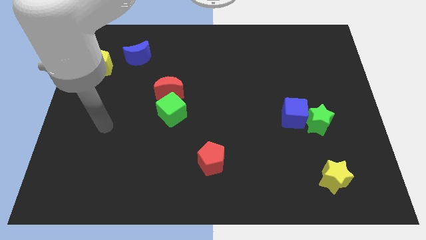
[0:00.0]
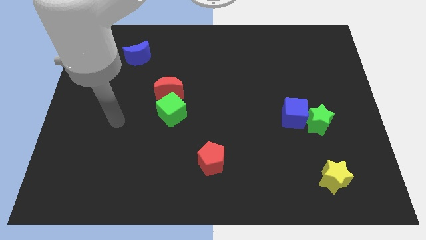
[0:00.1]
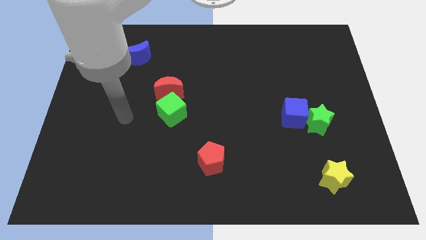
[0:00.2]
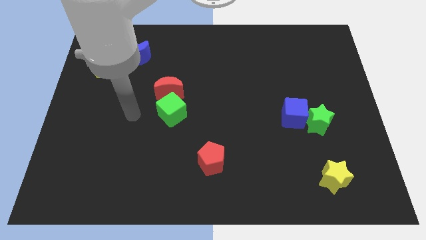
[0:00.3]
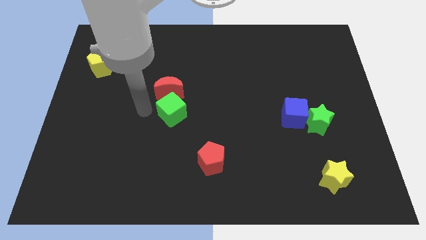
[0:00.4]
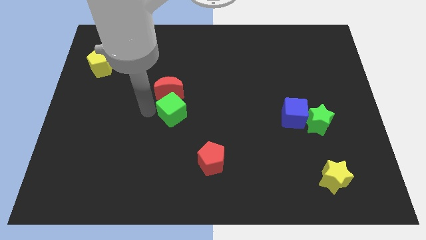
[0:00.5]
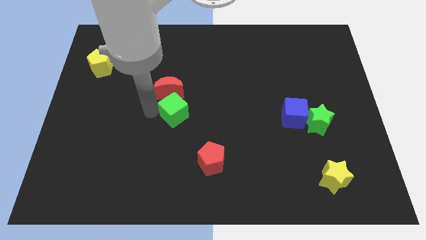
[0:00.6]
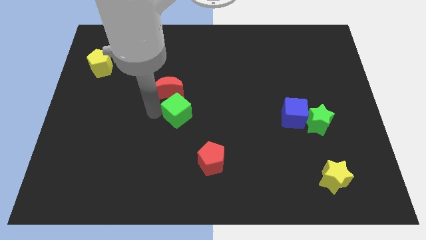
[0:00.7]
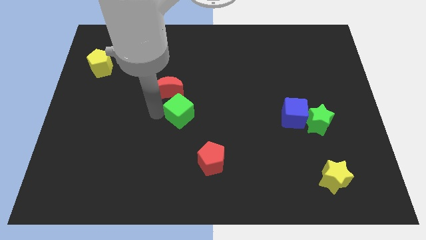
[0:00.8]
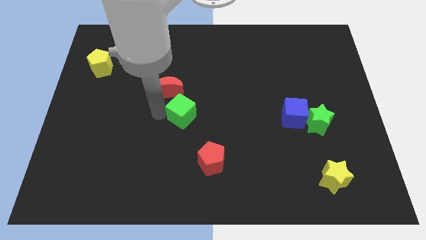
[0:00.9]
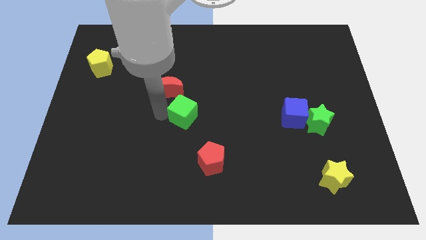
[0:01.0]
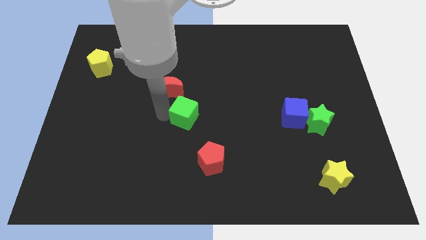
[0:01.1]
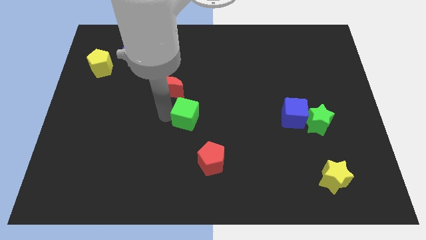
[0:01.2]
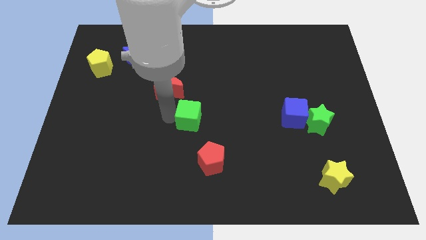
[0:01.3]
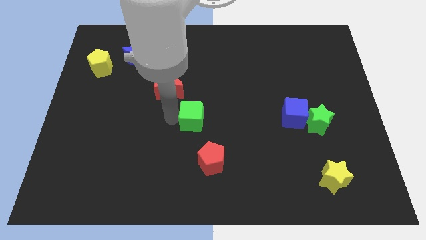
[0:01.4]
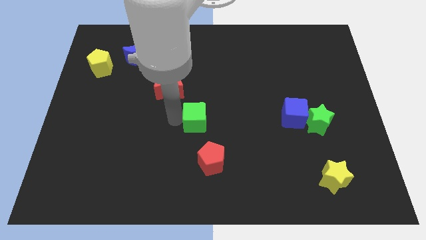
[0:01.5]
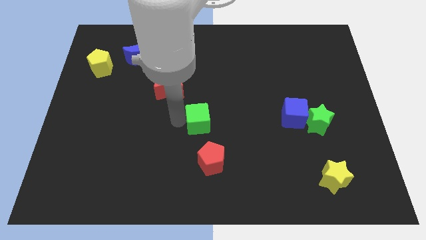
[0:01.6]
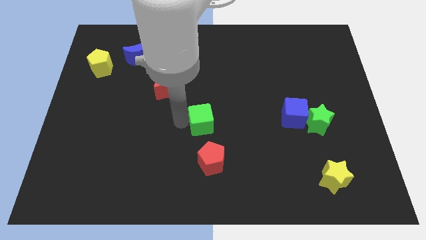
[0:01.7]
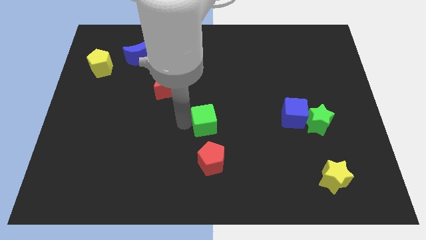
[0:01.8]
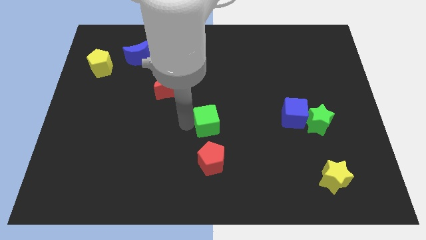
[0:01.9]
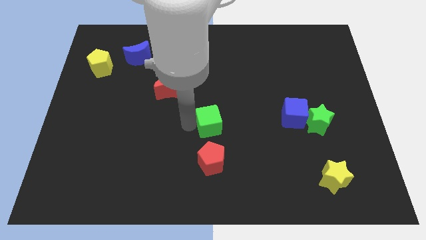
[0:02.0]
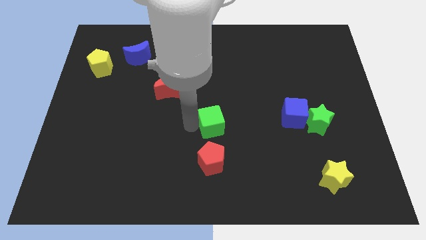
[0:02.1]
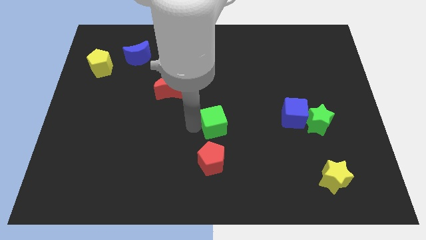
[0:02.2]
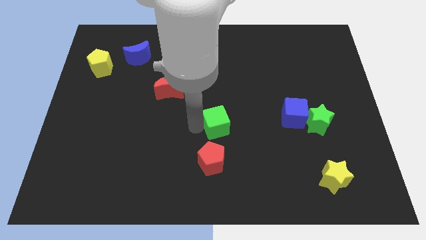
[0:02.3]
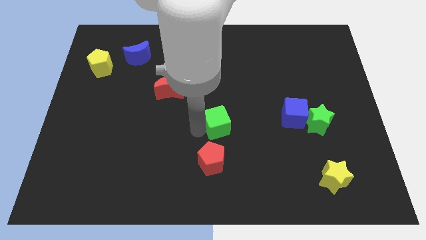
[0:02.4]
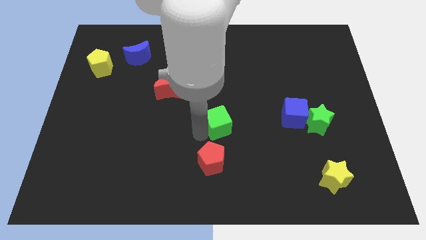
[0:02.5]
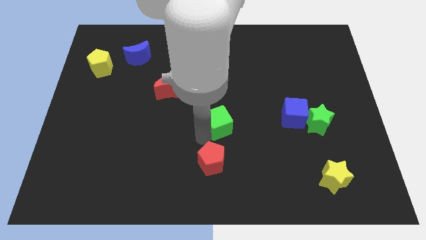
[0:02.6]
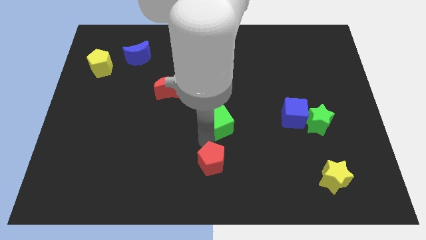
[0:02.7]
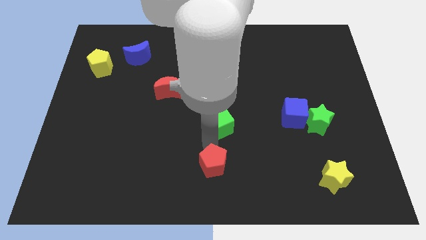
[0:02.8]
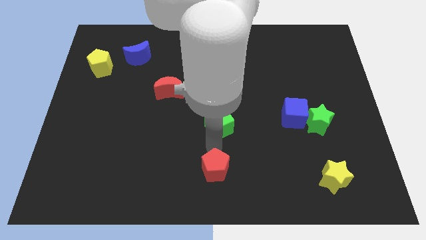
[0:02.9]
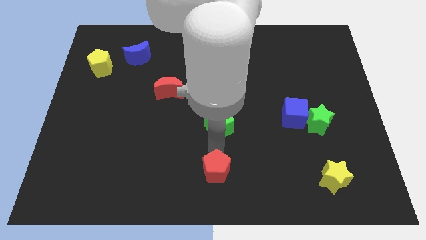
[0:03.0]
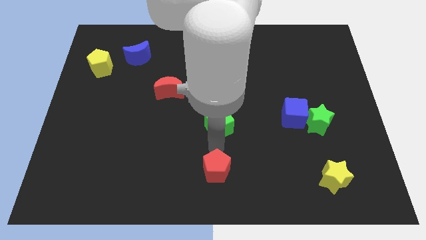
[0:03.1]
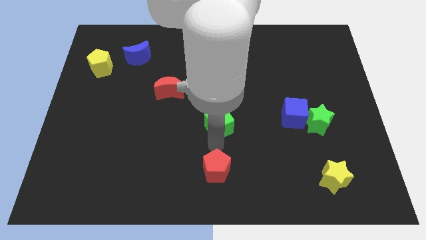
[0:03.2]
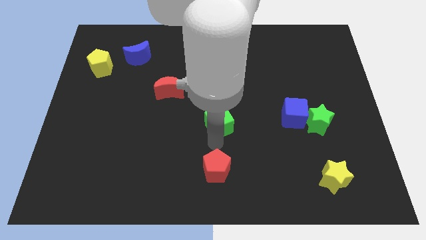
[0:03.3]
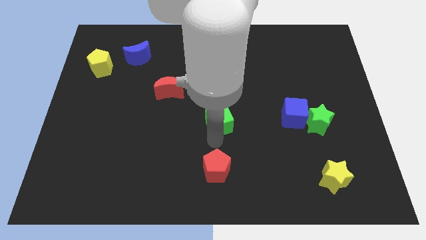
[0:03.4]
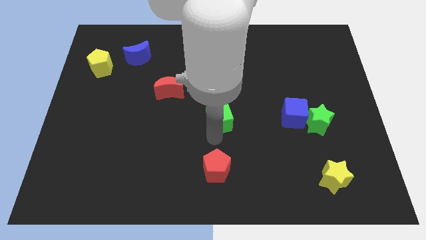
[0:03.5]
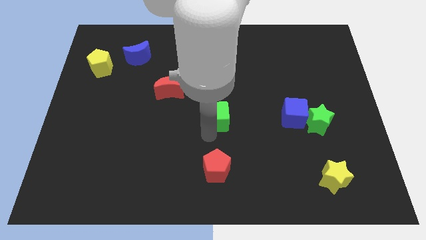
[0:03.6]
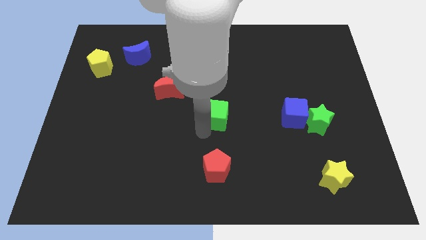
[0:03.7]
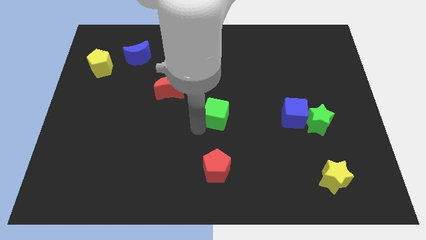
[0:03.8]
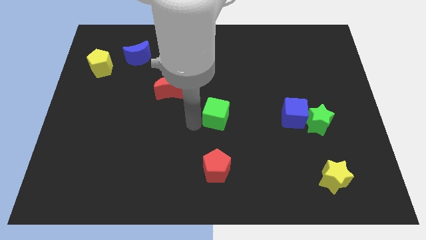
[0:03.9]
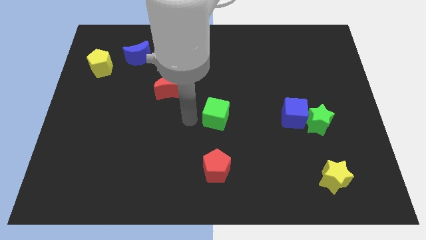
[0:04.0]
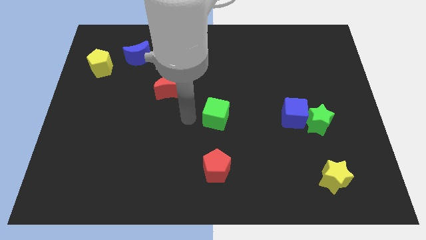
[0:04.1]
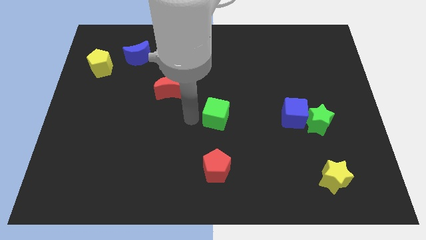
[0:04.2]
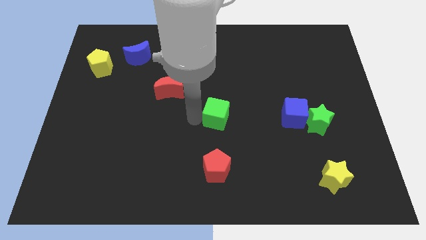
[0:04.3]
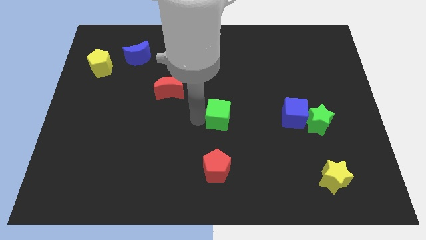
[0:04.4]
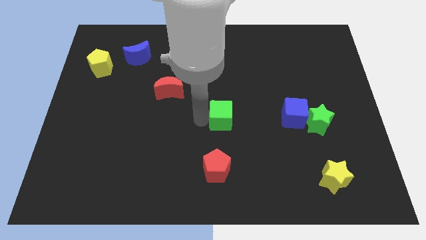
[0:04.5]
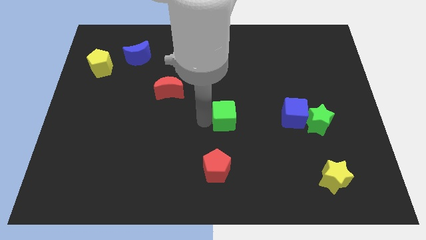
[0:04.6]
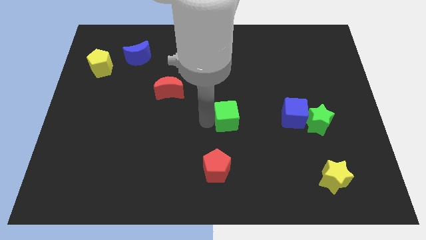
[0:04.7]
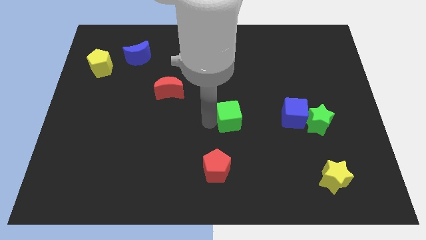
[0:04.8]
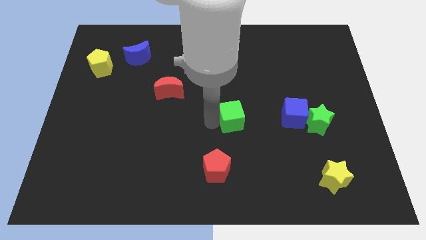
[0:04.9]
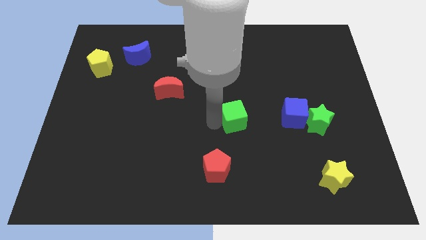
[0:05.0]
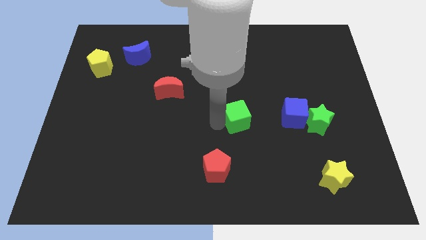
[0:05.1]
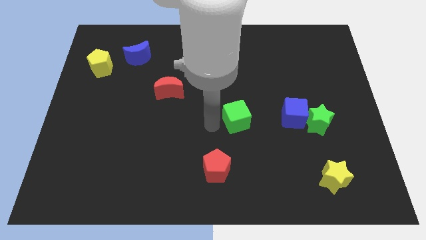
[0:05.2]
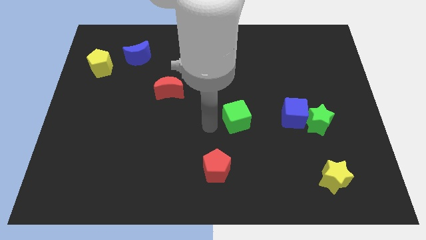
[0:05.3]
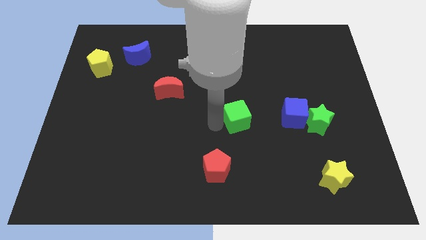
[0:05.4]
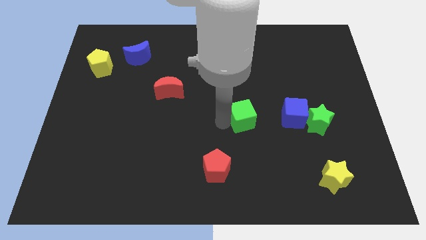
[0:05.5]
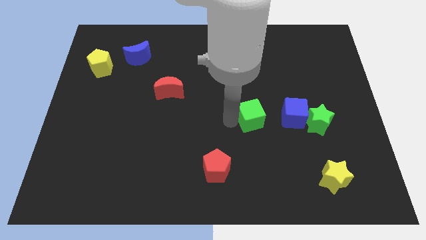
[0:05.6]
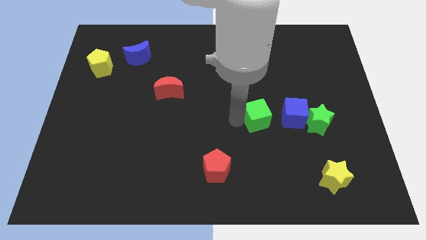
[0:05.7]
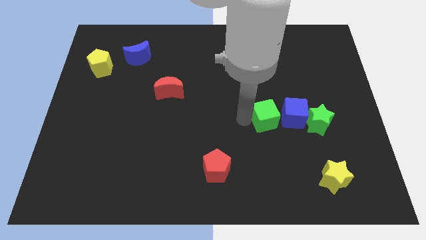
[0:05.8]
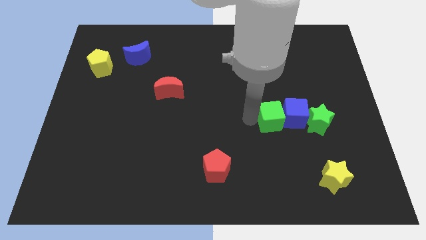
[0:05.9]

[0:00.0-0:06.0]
move the green cube close to the blue cube

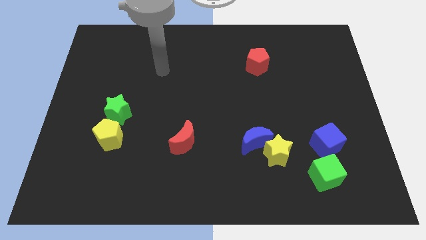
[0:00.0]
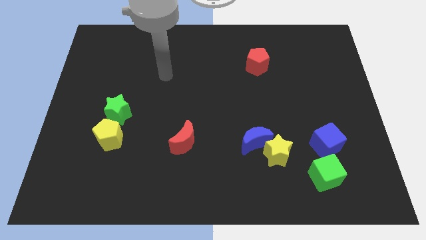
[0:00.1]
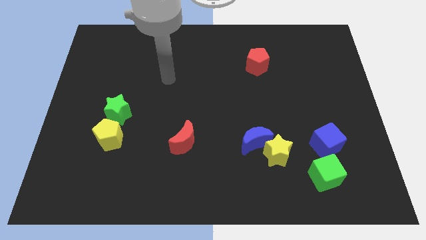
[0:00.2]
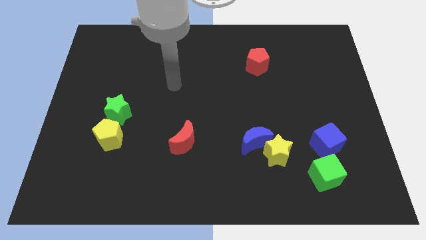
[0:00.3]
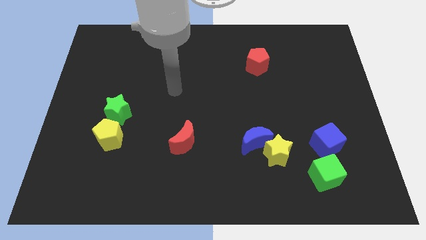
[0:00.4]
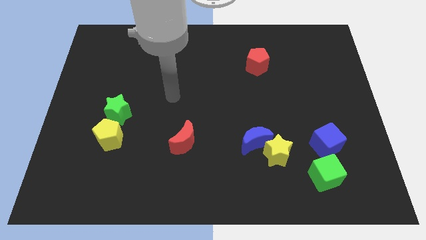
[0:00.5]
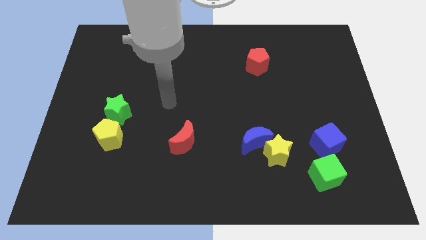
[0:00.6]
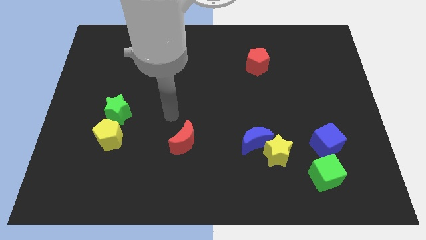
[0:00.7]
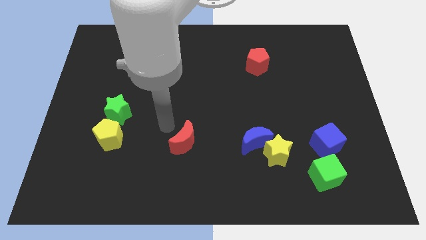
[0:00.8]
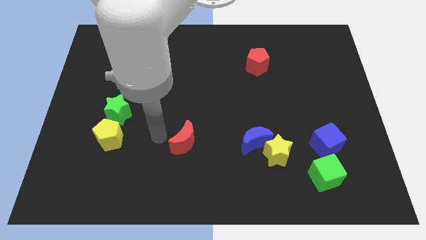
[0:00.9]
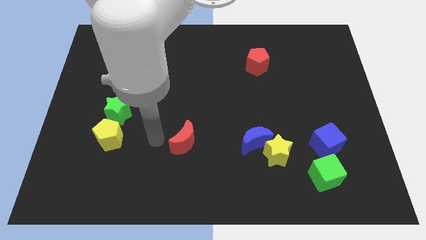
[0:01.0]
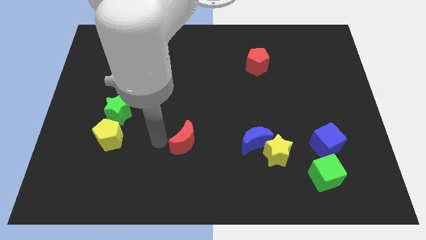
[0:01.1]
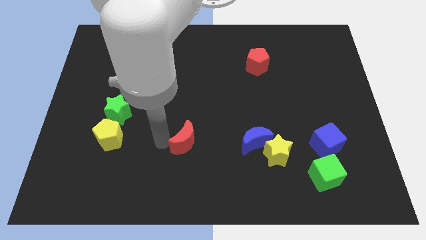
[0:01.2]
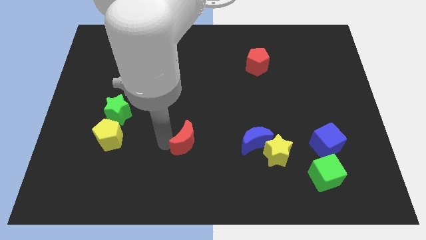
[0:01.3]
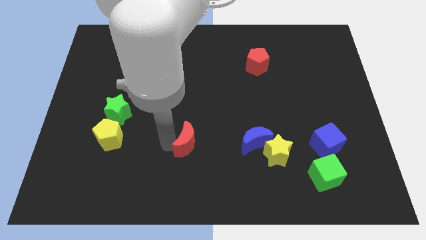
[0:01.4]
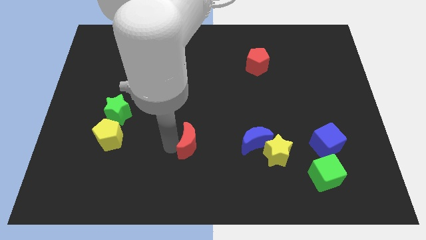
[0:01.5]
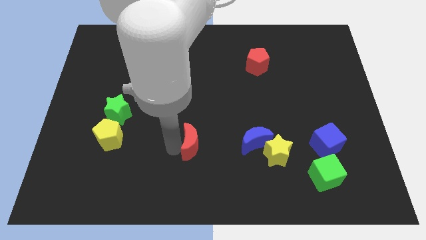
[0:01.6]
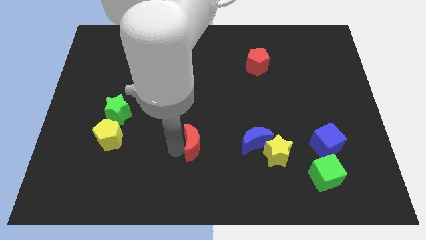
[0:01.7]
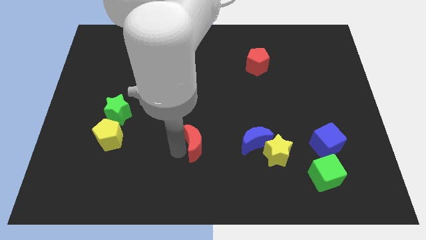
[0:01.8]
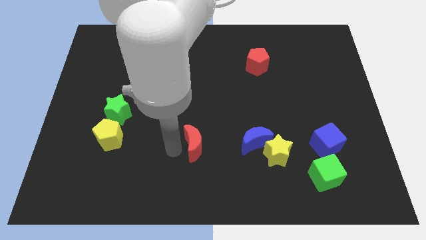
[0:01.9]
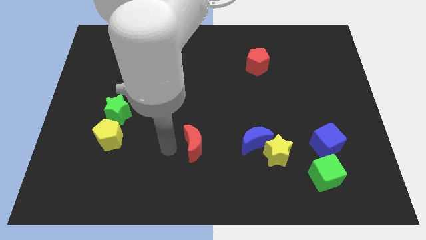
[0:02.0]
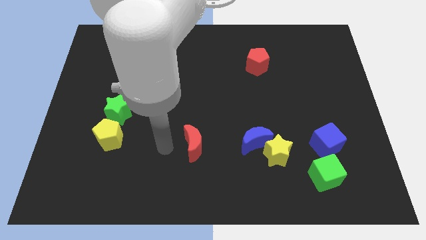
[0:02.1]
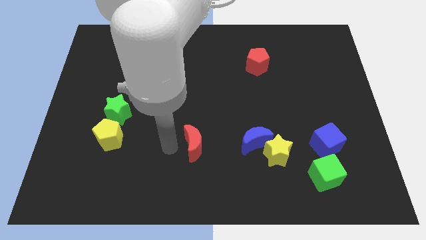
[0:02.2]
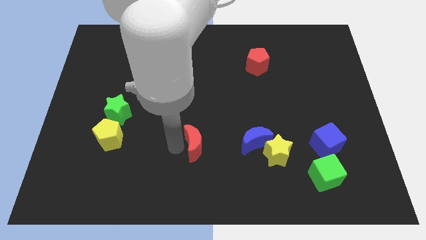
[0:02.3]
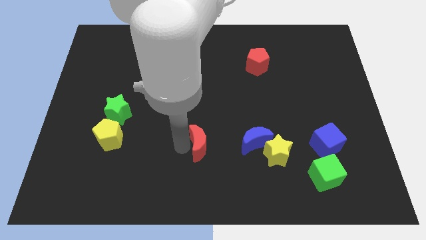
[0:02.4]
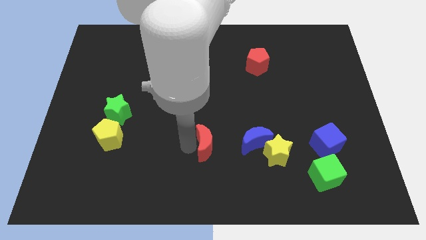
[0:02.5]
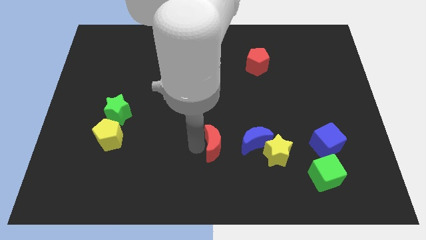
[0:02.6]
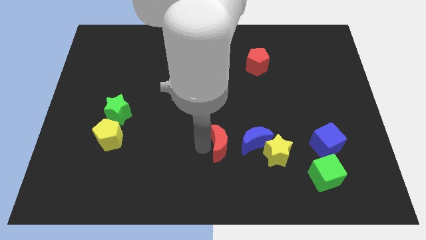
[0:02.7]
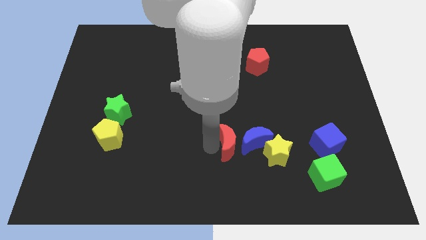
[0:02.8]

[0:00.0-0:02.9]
move the red moon next to the blue moon
